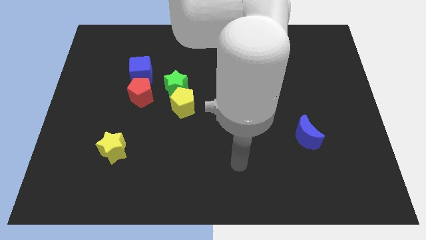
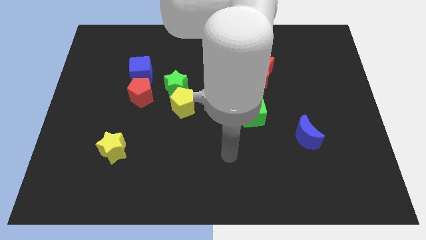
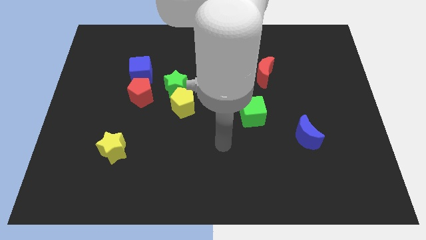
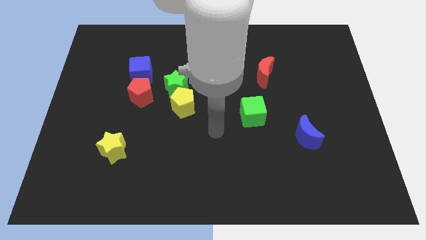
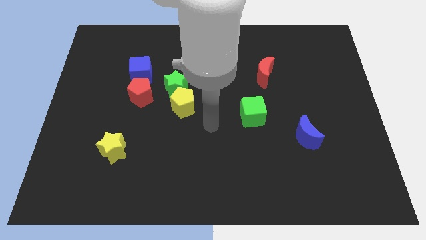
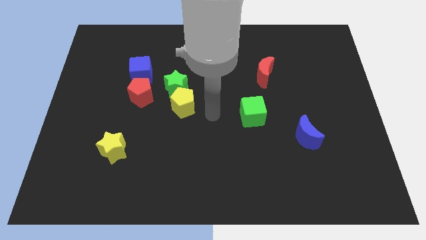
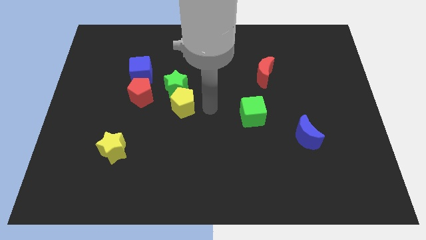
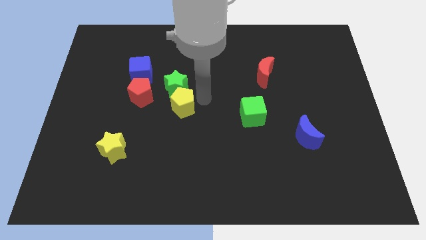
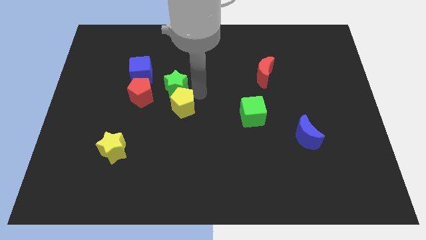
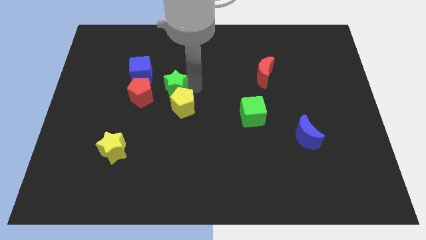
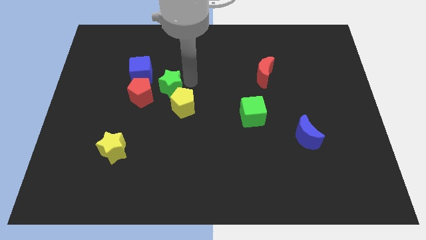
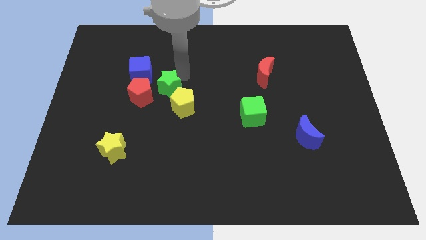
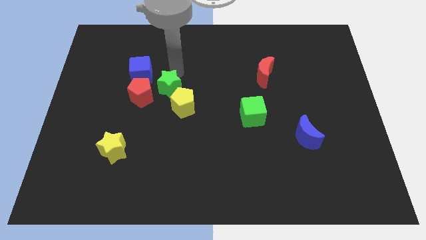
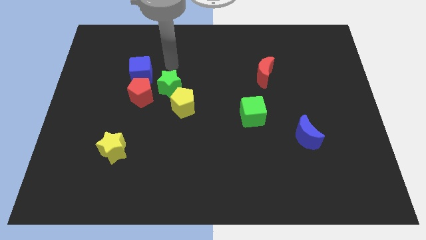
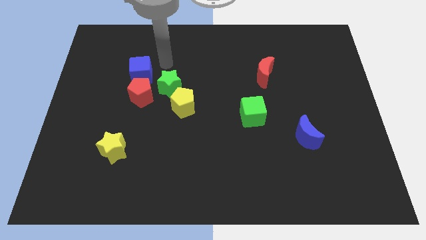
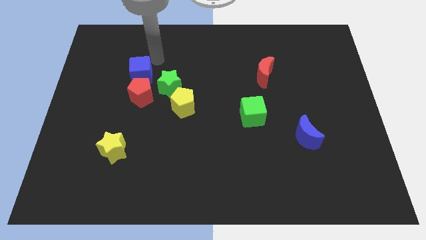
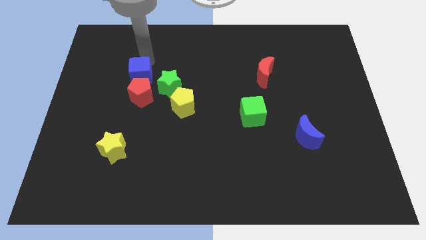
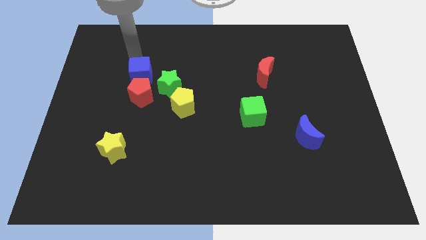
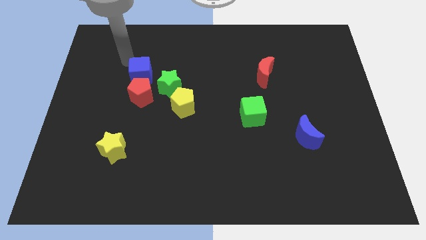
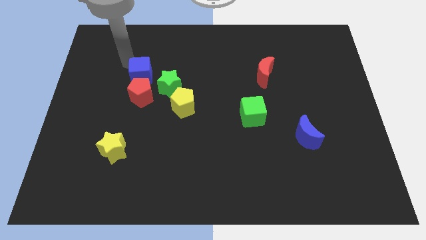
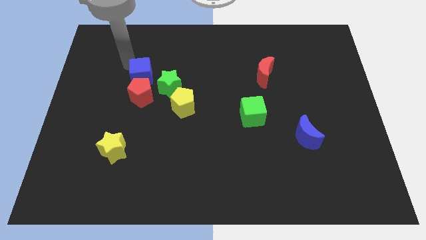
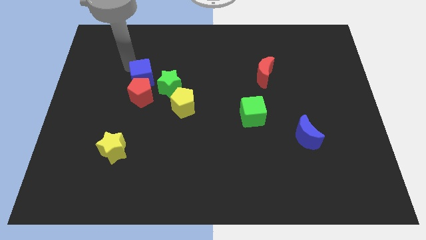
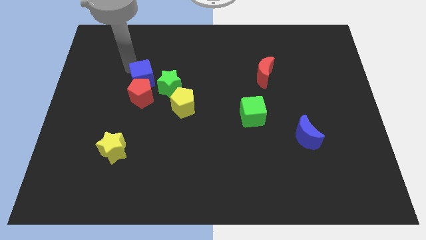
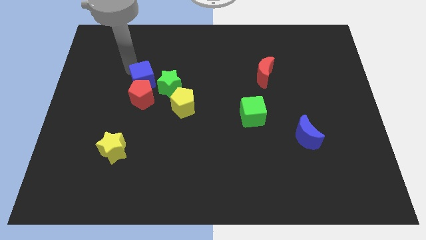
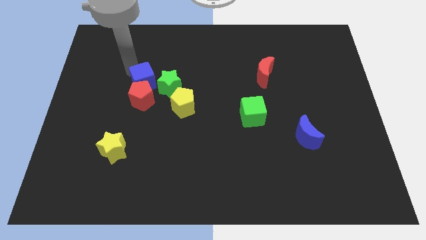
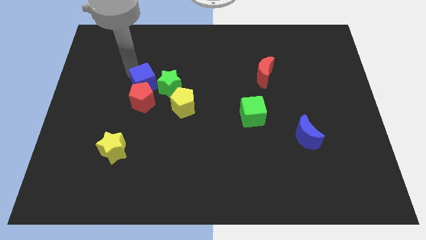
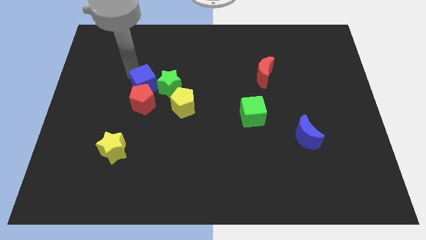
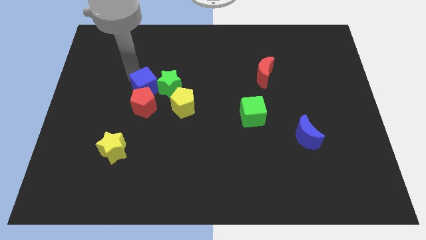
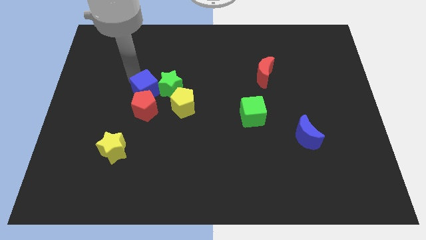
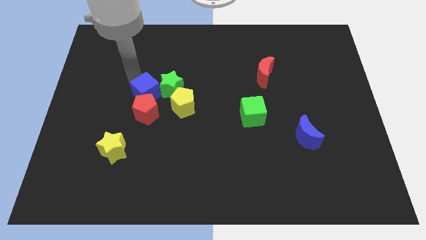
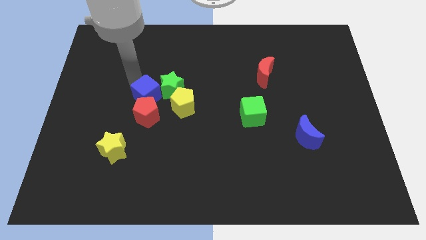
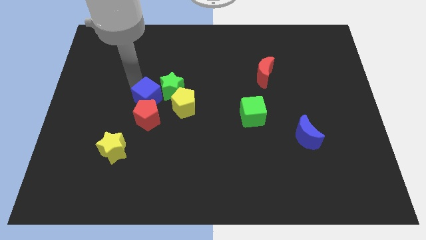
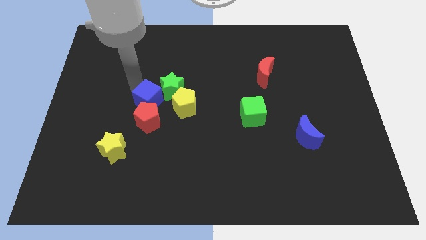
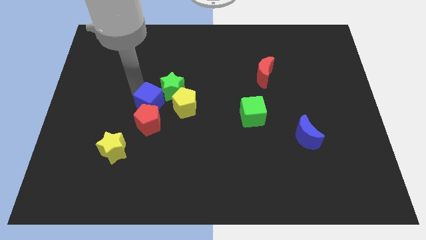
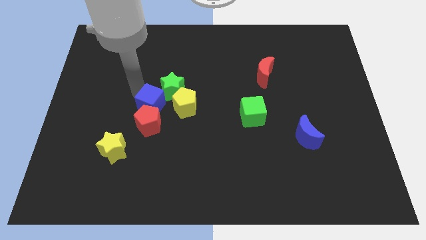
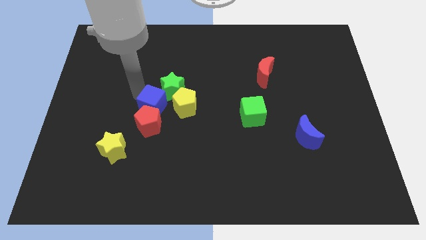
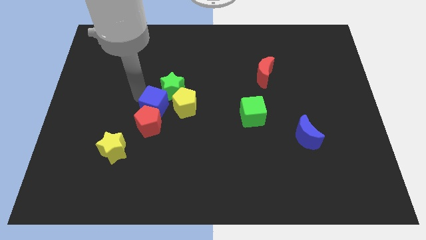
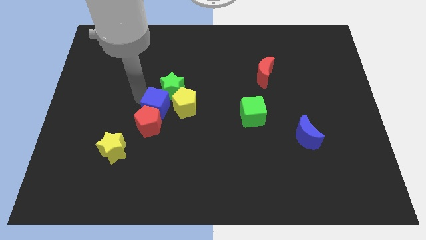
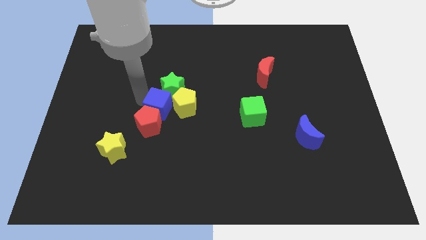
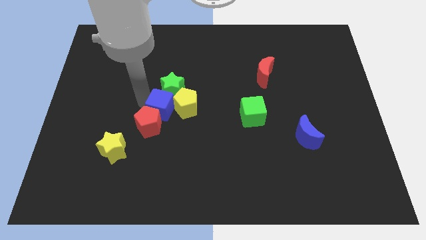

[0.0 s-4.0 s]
slide the blue cube close to the yellow pentagon

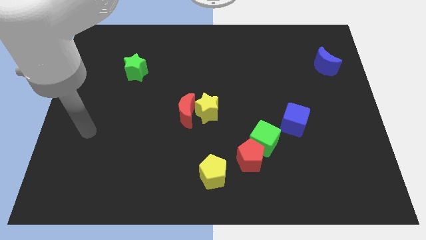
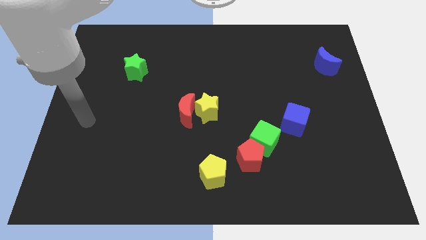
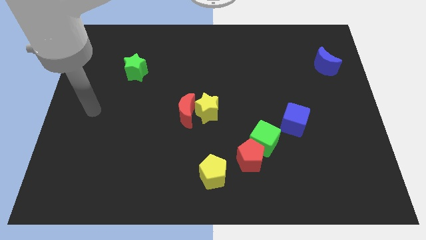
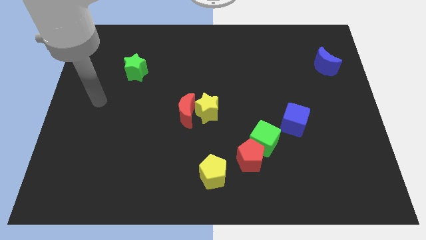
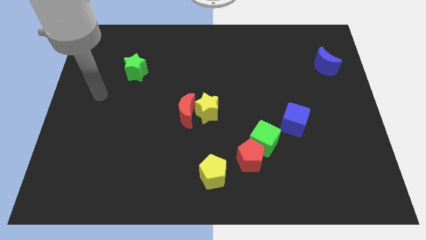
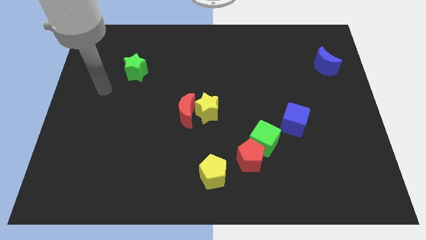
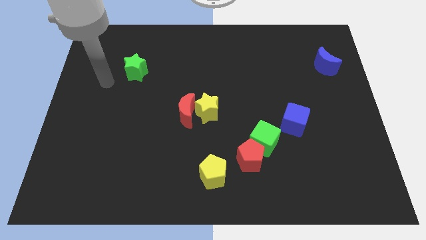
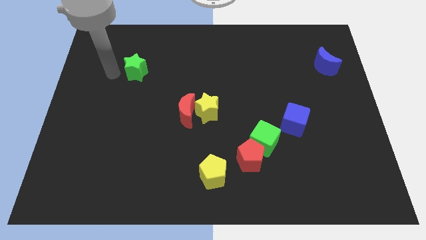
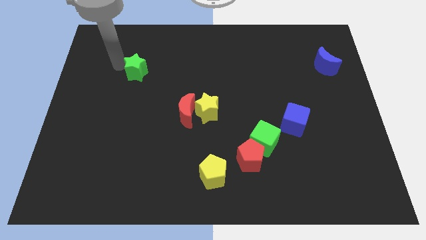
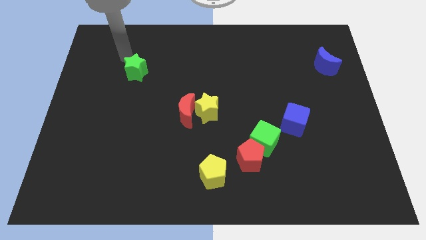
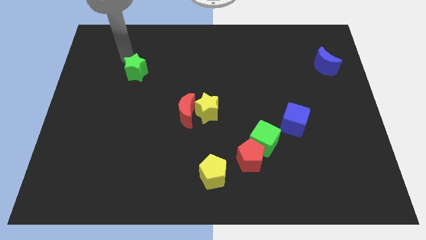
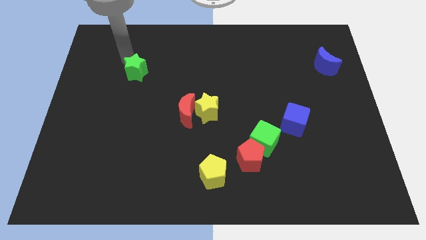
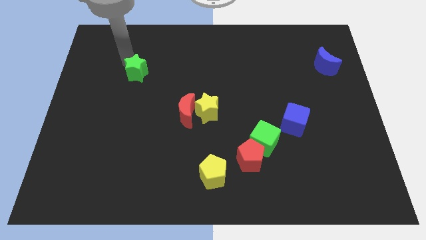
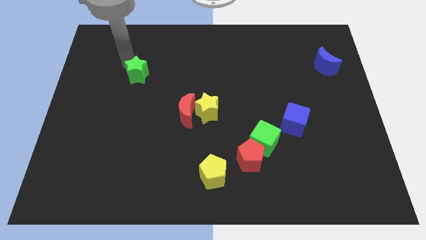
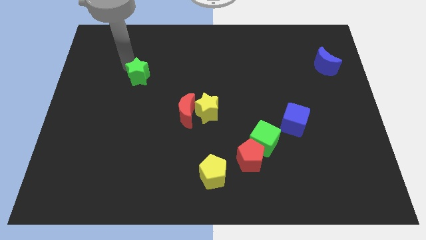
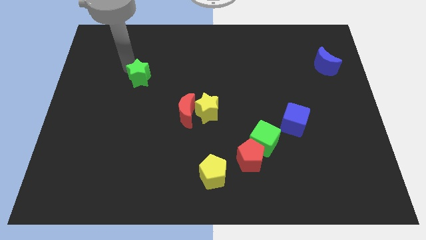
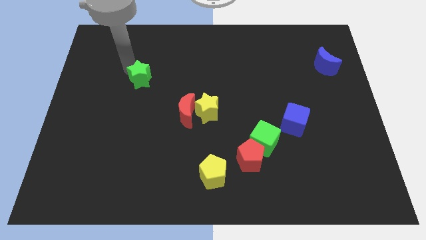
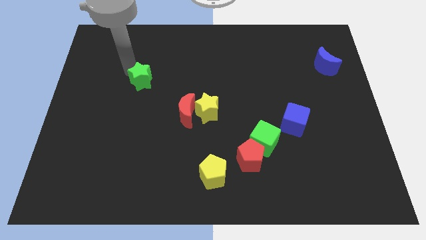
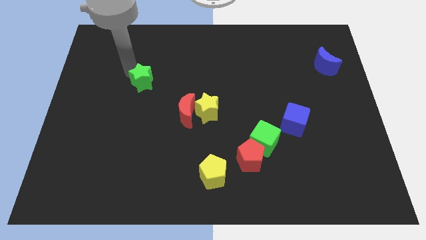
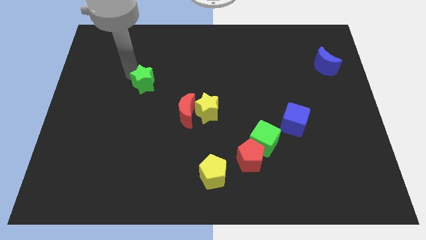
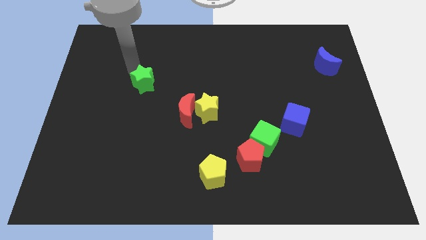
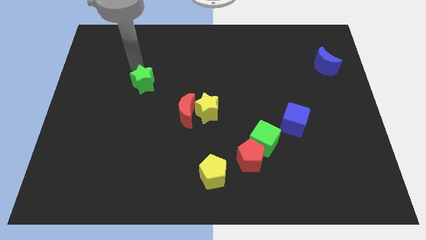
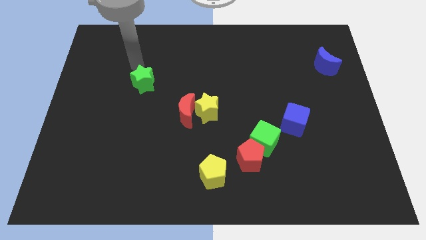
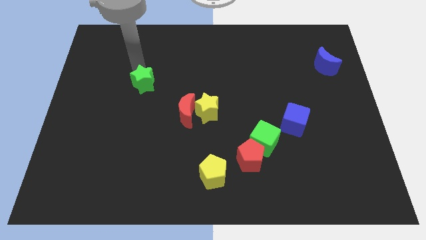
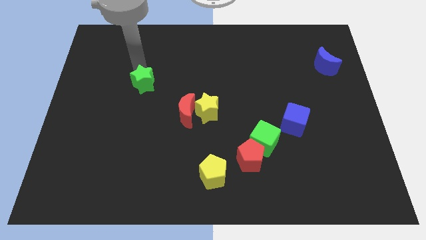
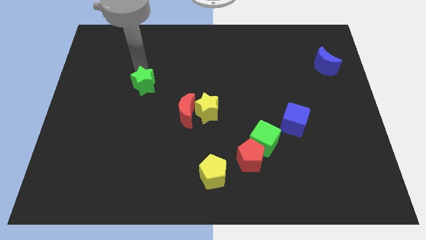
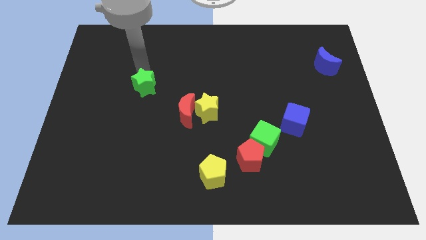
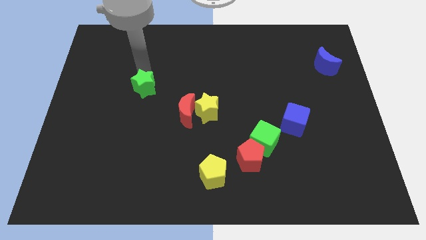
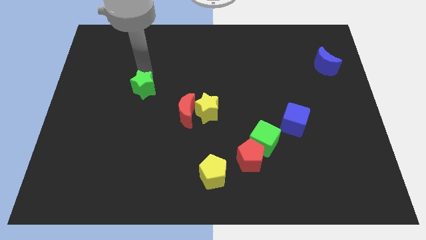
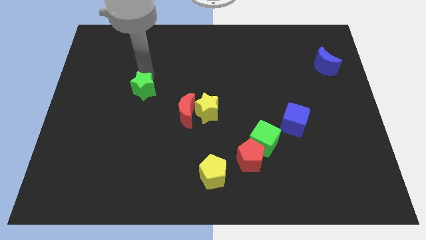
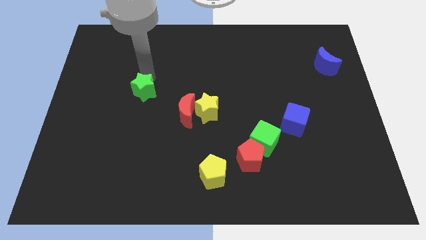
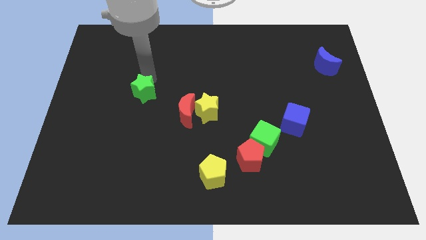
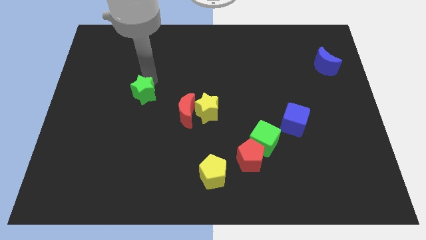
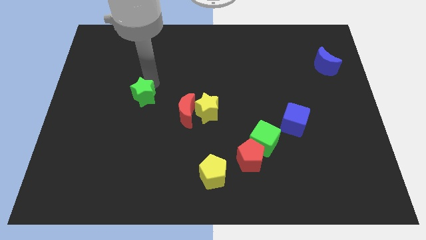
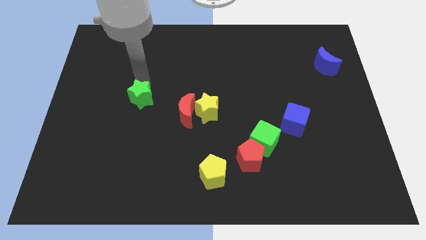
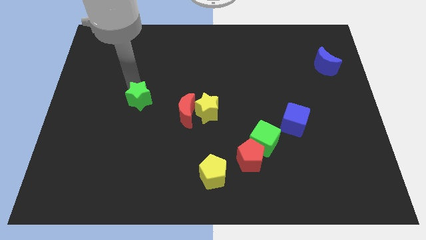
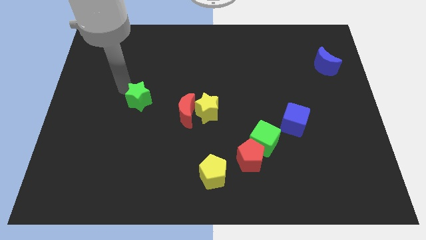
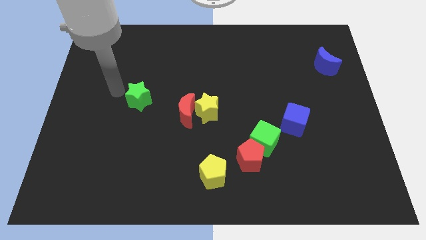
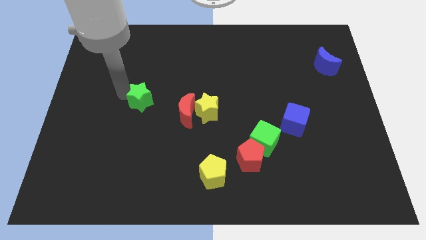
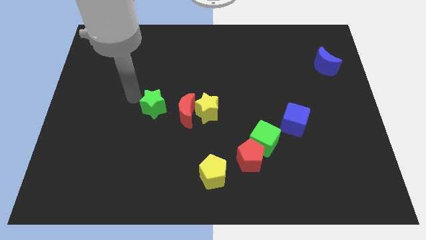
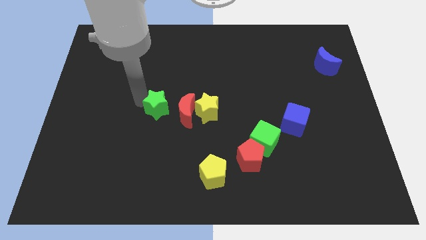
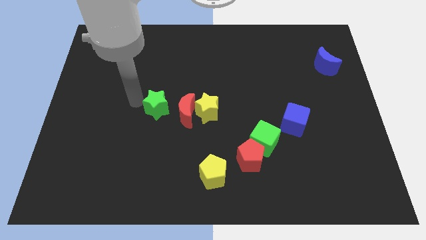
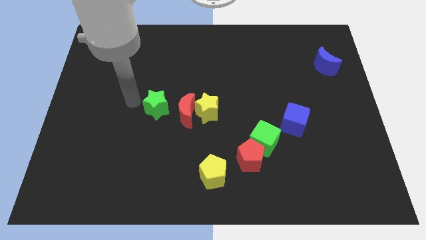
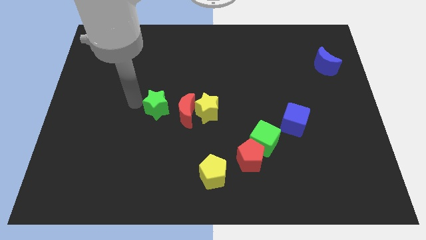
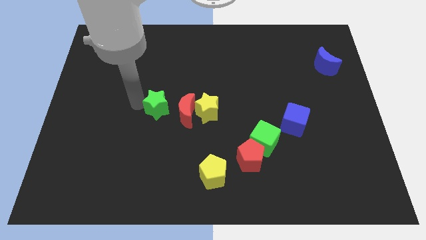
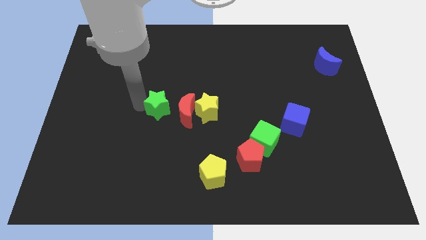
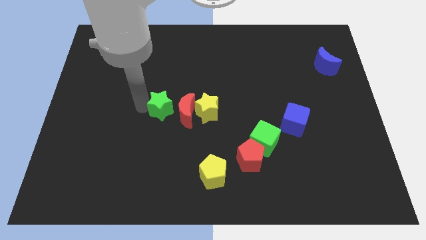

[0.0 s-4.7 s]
push the green star close to the red moon
